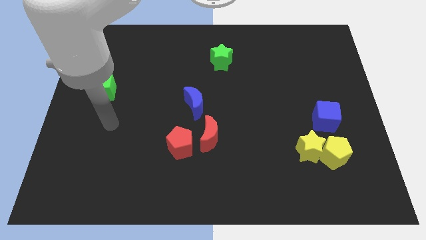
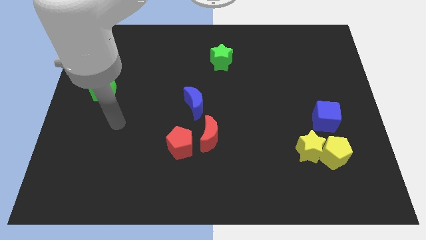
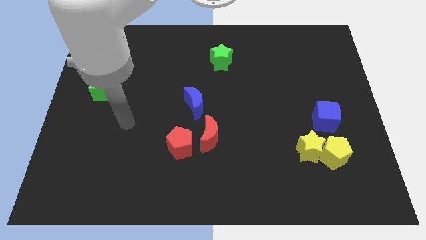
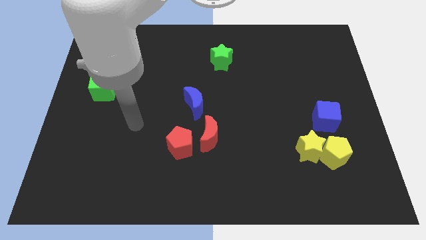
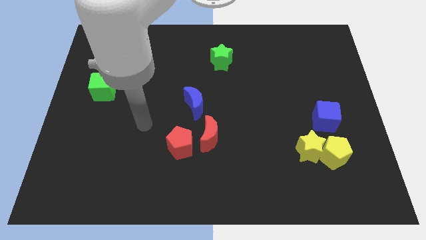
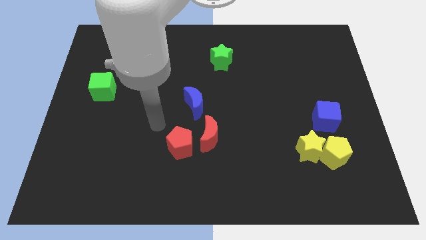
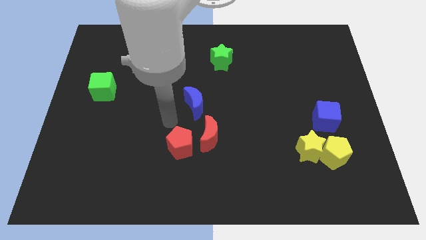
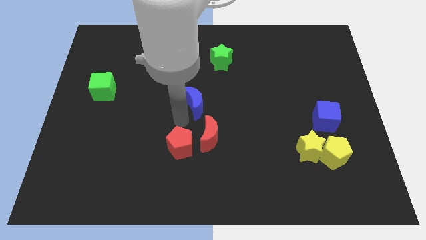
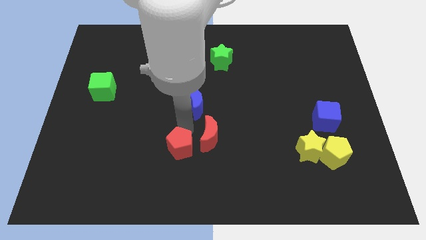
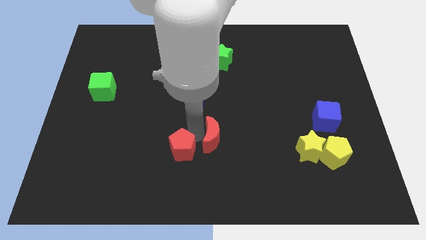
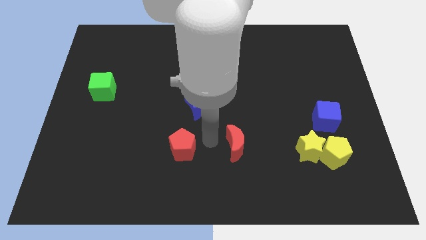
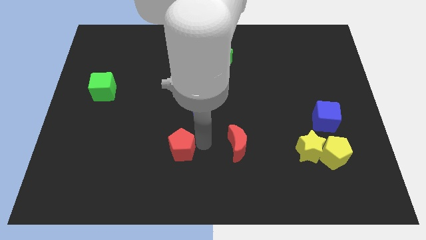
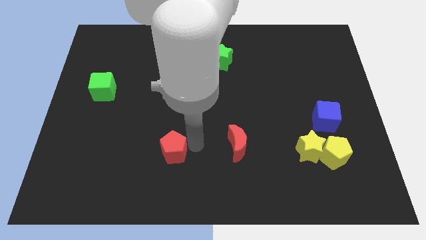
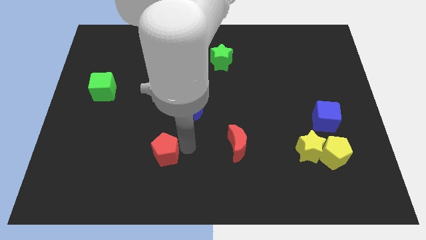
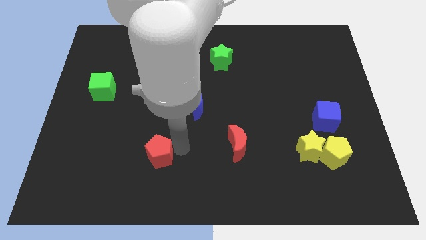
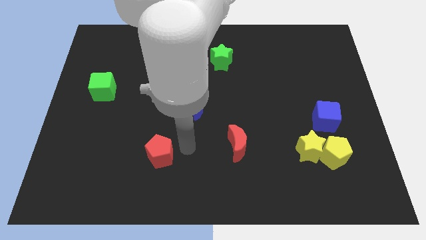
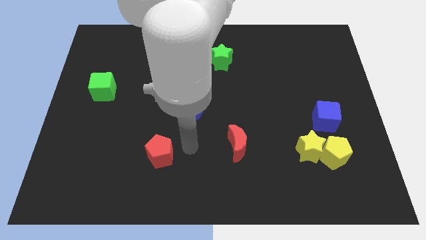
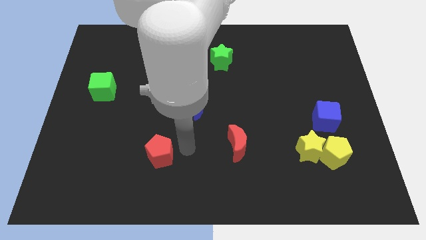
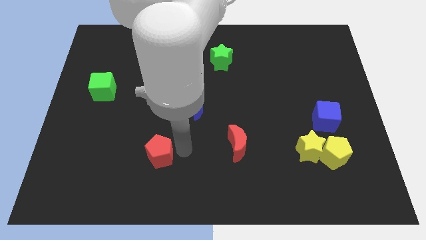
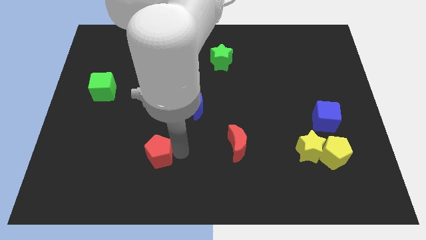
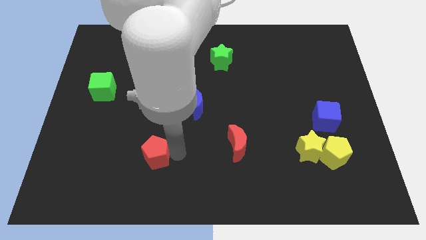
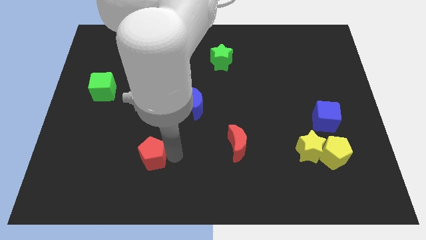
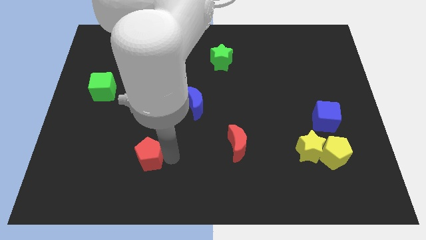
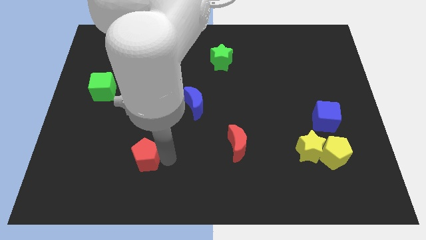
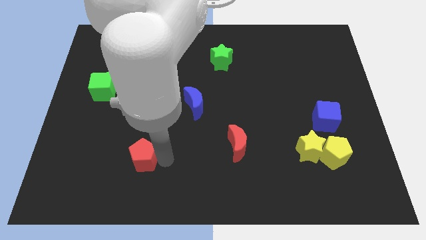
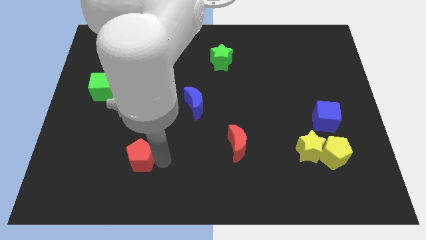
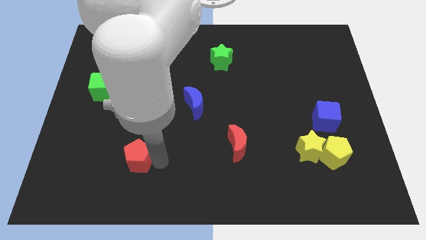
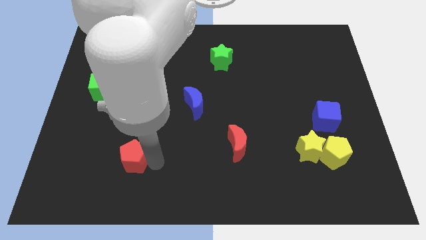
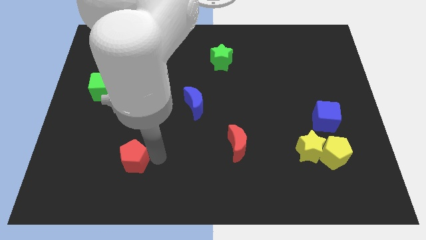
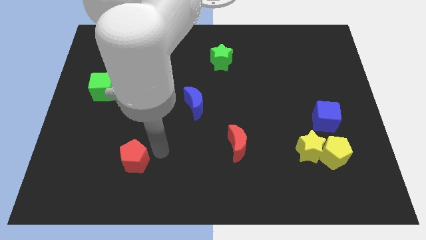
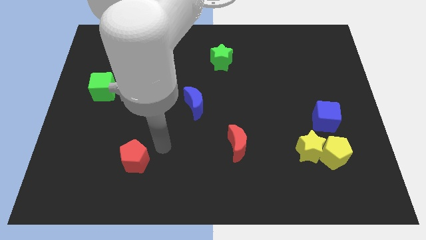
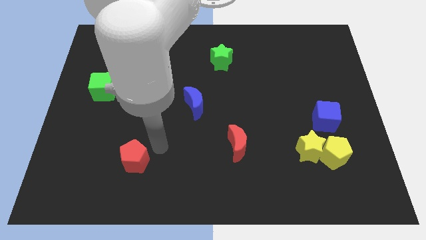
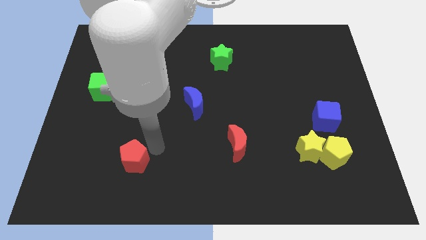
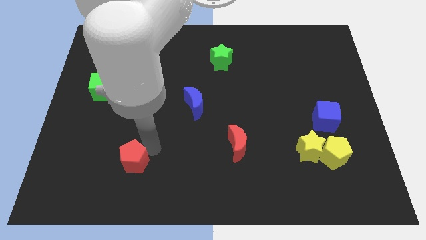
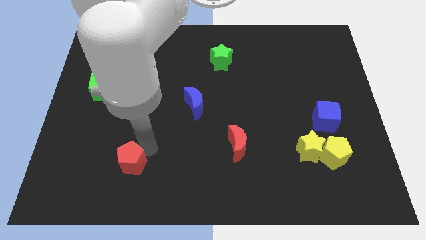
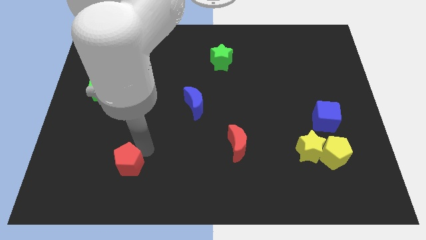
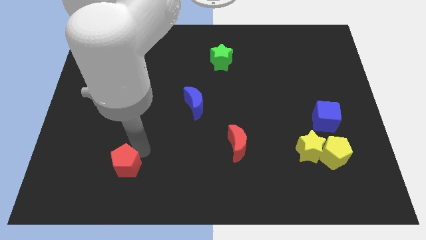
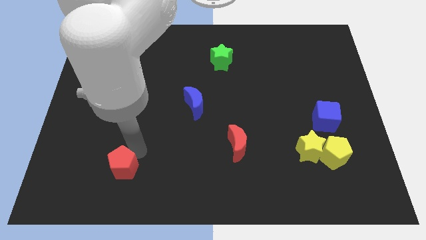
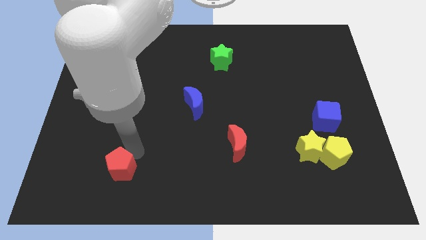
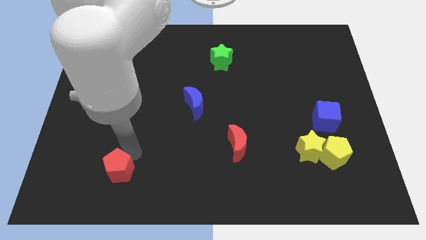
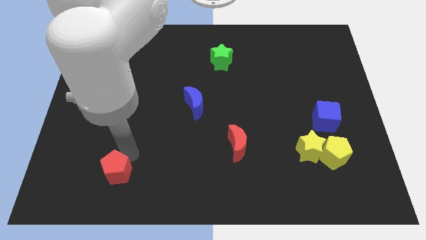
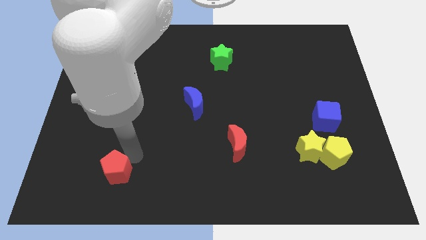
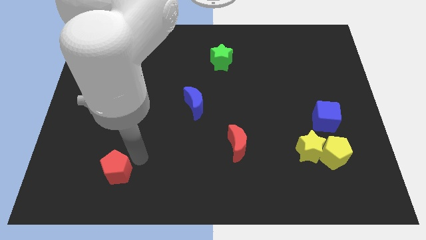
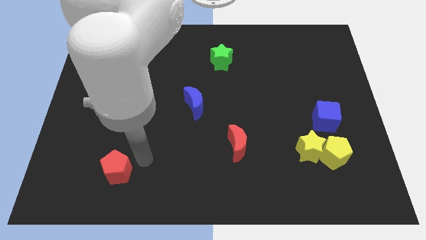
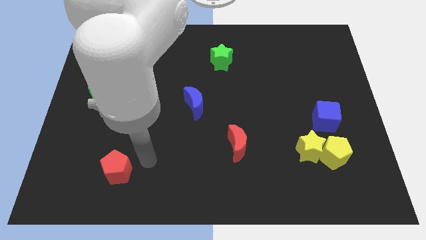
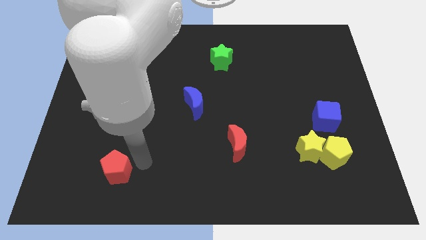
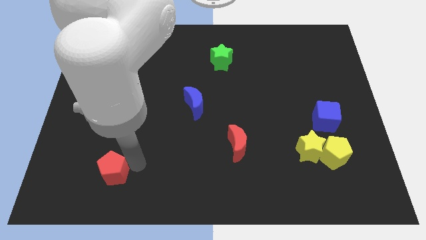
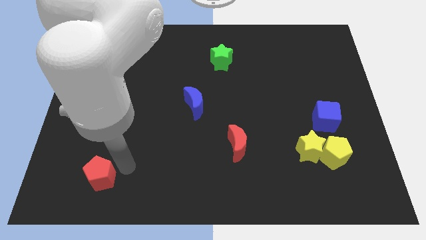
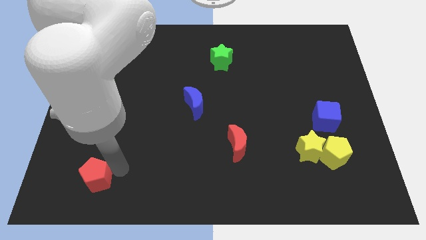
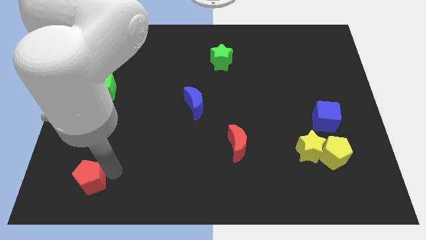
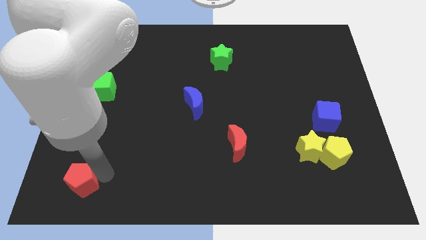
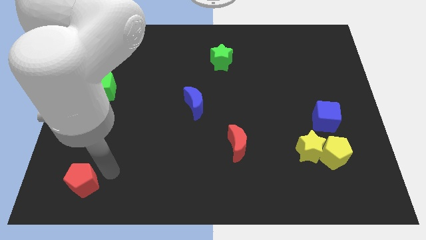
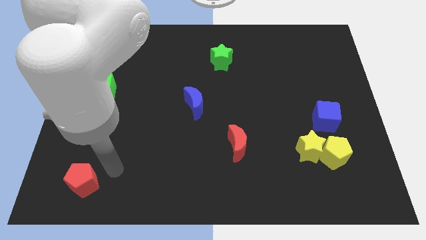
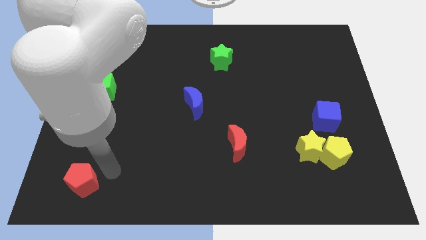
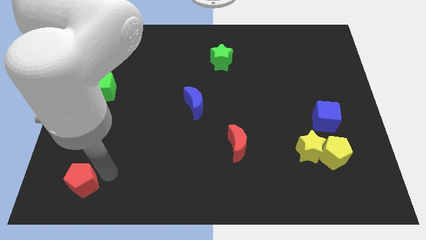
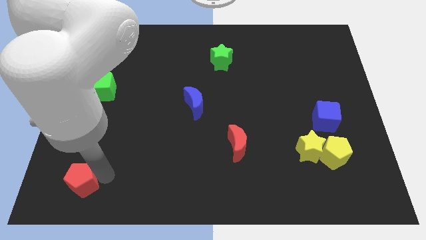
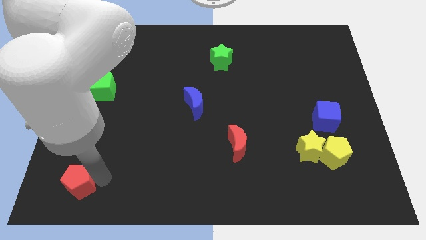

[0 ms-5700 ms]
push the red pentagon to the lower left corner
